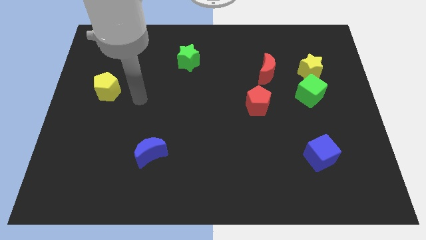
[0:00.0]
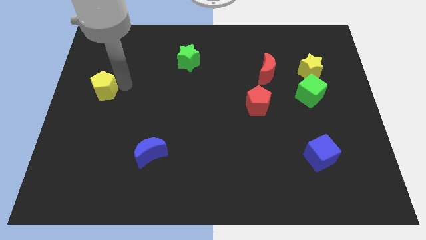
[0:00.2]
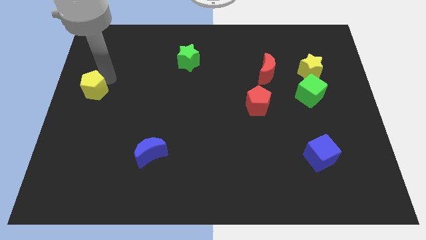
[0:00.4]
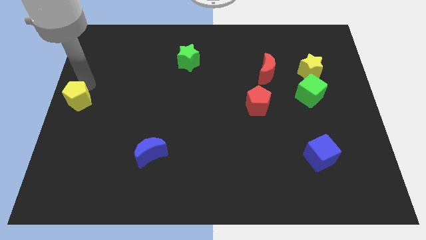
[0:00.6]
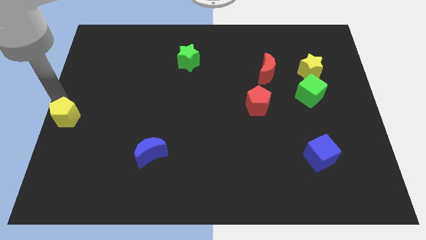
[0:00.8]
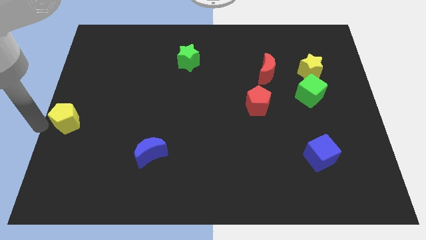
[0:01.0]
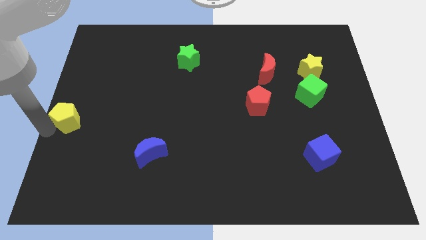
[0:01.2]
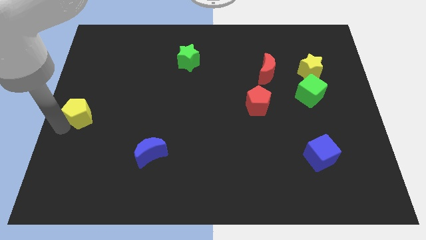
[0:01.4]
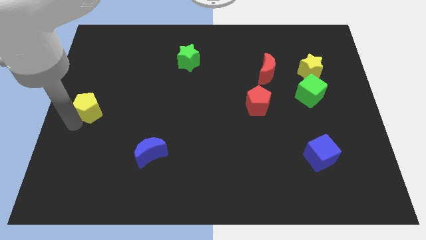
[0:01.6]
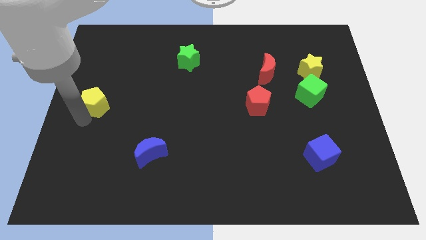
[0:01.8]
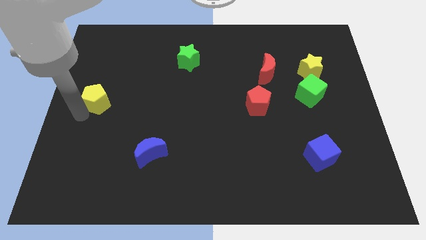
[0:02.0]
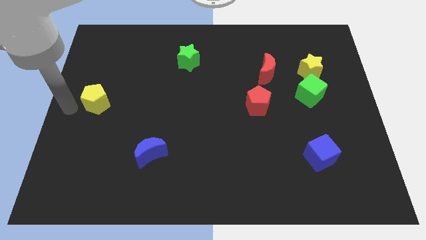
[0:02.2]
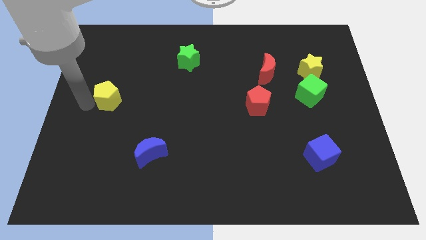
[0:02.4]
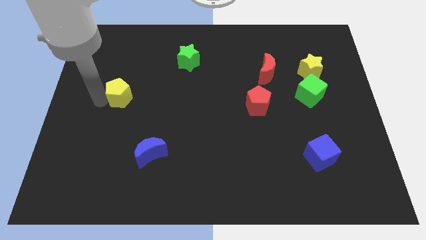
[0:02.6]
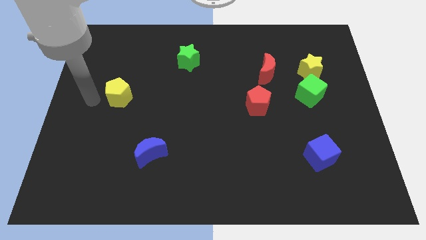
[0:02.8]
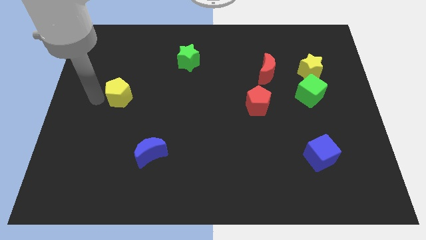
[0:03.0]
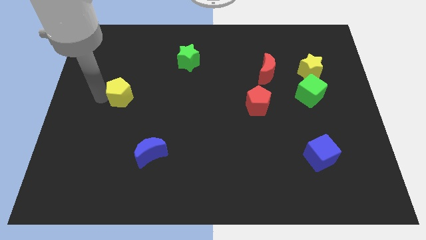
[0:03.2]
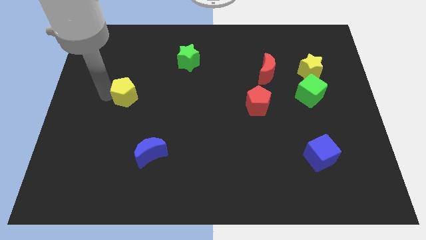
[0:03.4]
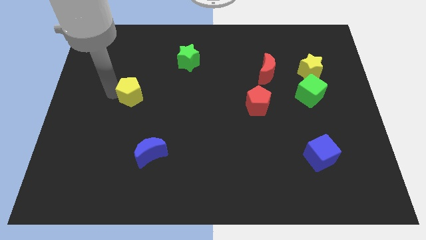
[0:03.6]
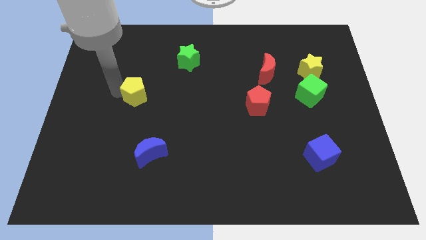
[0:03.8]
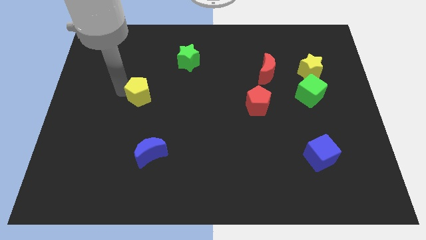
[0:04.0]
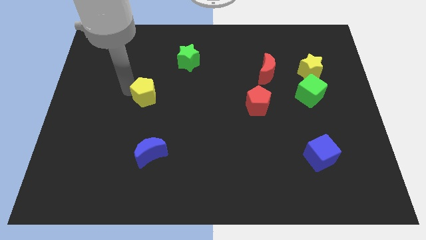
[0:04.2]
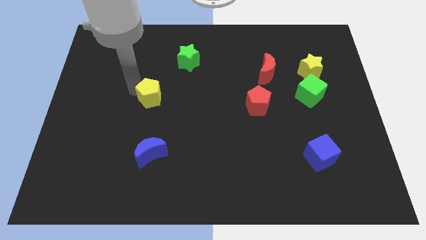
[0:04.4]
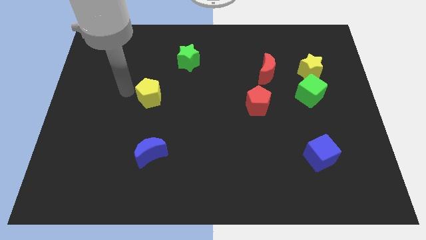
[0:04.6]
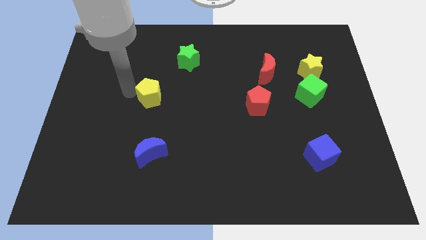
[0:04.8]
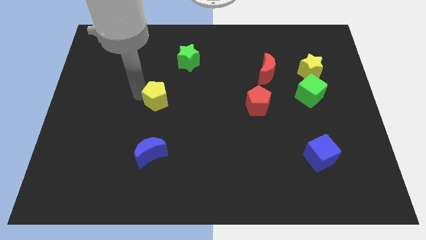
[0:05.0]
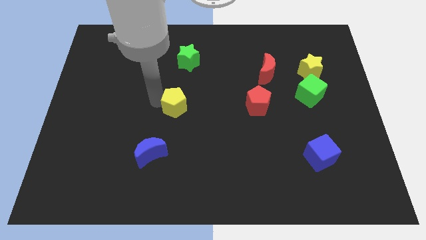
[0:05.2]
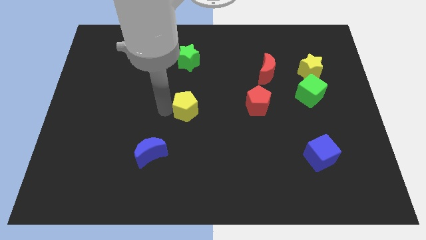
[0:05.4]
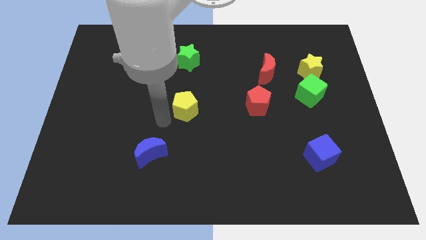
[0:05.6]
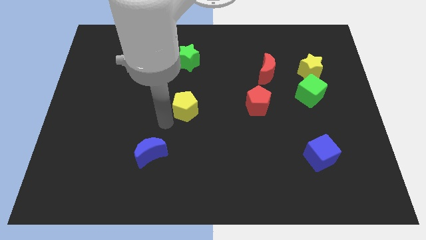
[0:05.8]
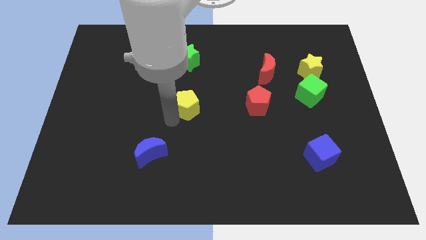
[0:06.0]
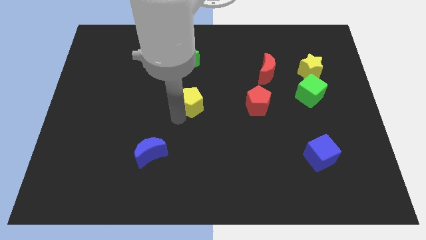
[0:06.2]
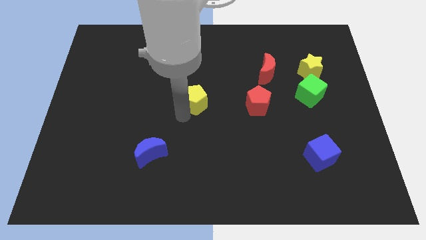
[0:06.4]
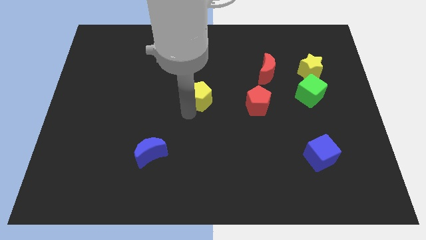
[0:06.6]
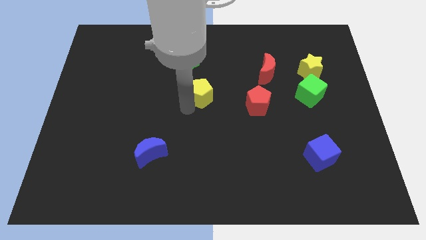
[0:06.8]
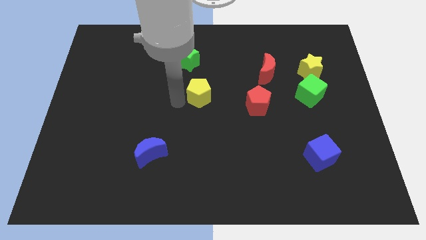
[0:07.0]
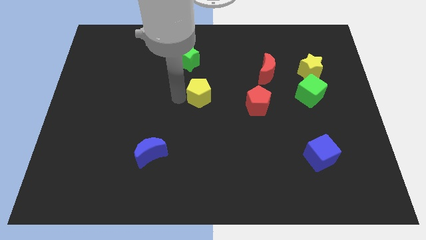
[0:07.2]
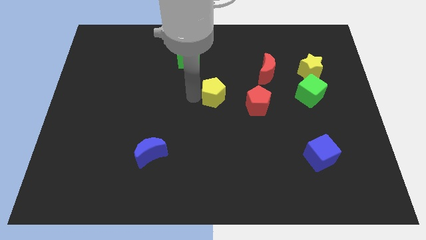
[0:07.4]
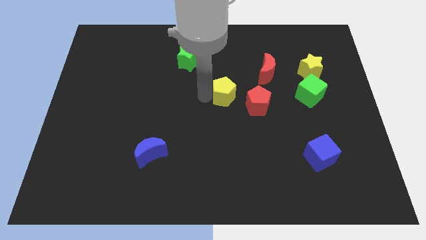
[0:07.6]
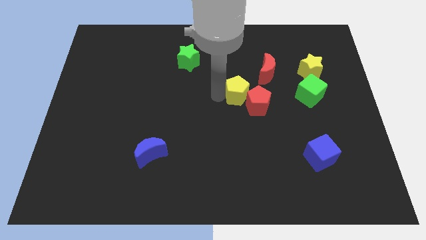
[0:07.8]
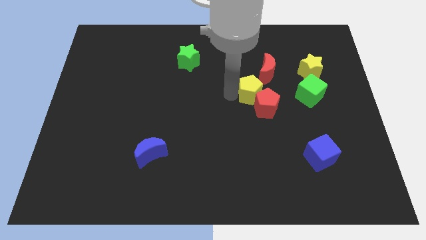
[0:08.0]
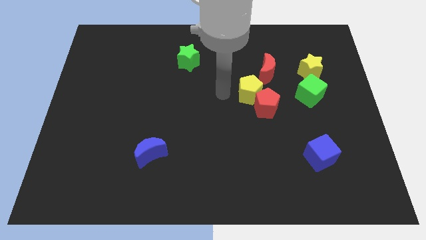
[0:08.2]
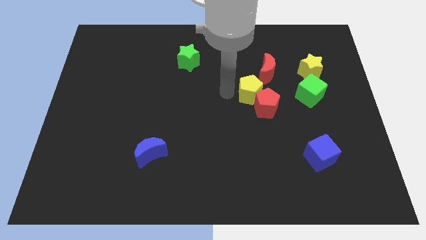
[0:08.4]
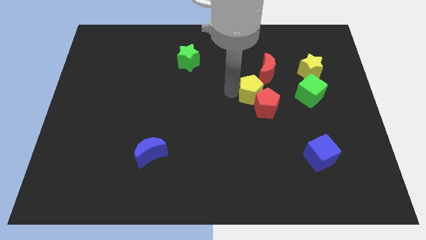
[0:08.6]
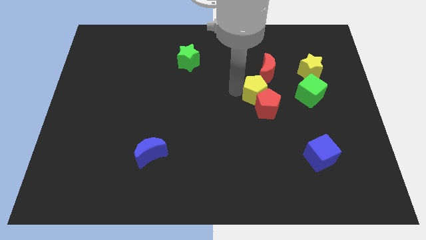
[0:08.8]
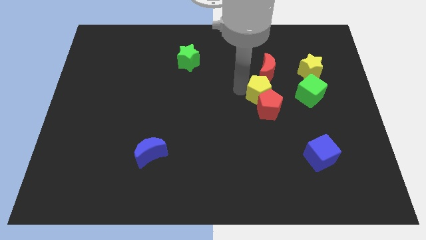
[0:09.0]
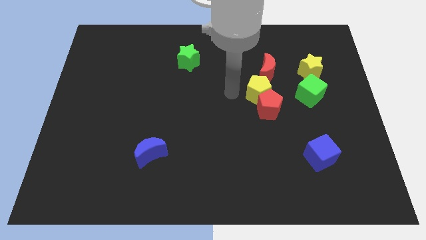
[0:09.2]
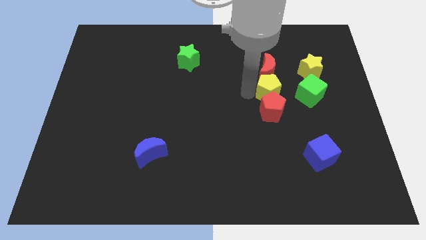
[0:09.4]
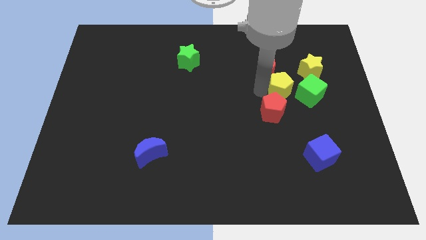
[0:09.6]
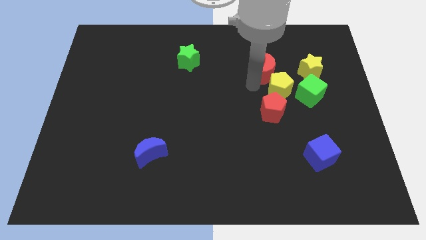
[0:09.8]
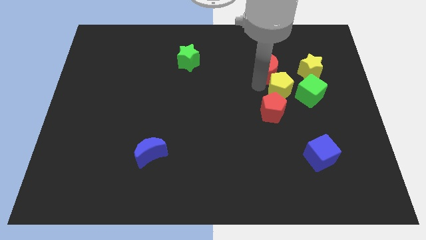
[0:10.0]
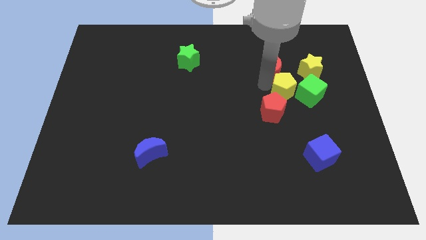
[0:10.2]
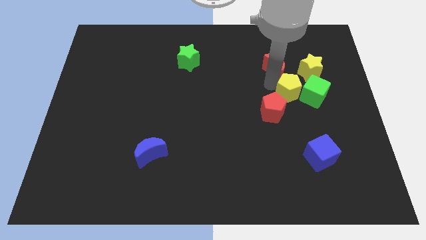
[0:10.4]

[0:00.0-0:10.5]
put the yellow pentagon towards the green cube

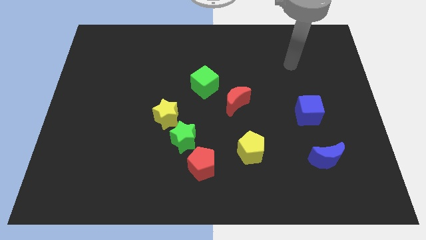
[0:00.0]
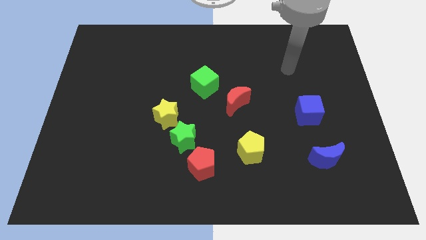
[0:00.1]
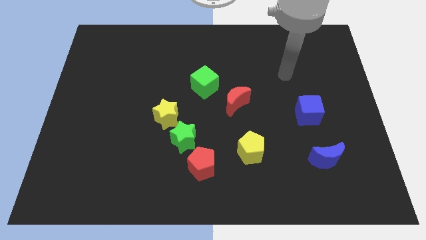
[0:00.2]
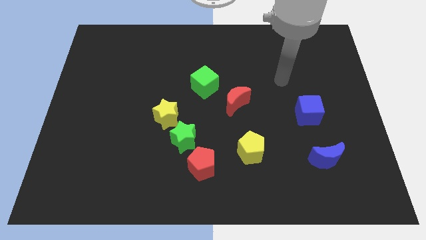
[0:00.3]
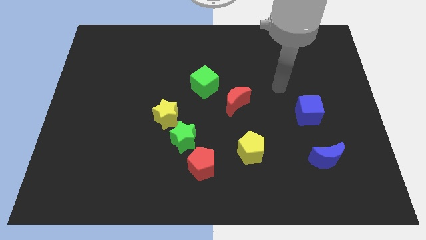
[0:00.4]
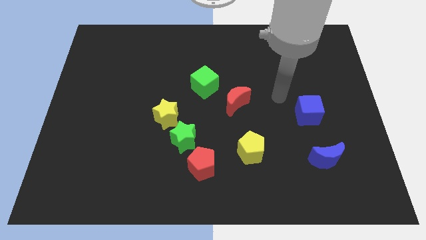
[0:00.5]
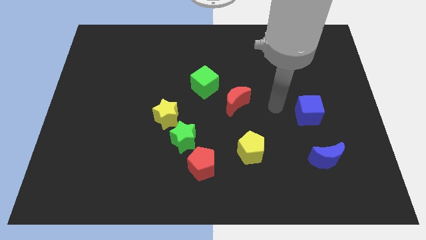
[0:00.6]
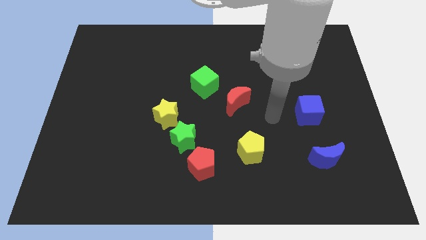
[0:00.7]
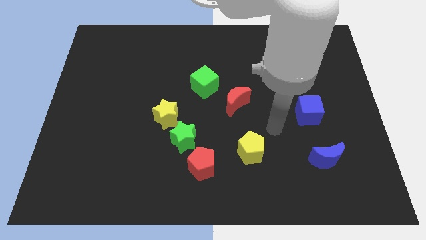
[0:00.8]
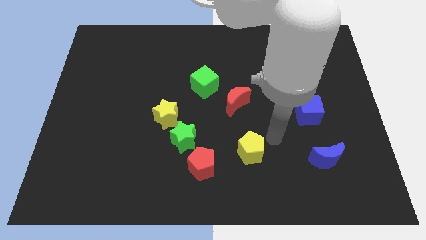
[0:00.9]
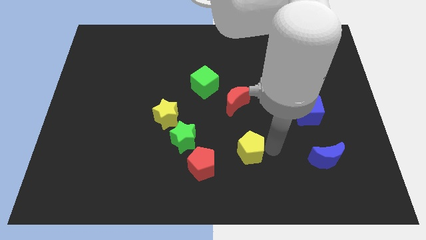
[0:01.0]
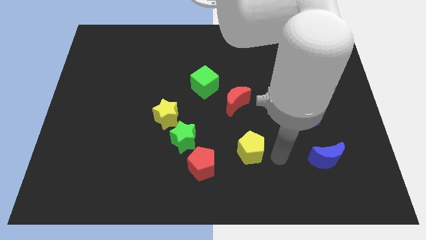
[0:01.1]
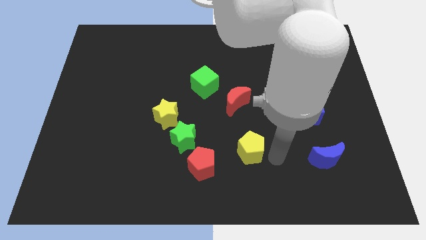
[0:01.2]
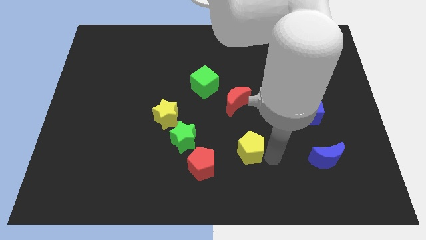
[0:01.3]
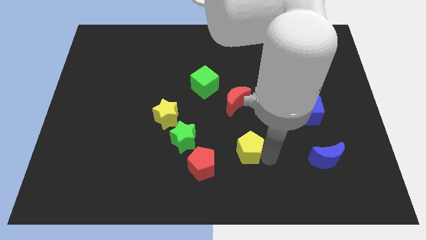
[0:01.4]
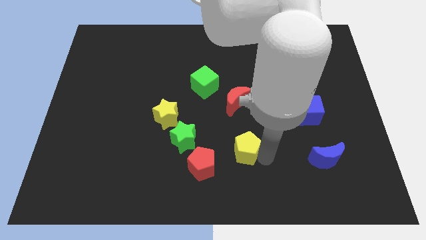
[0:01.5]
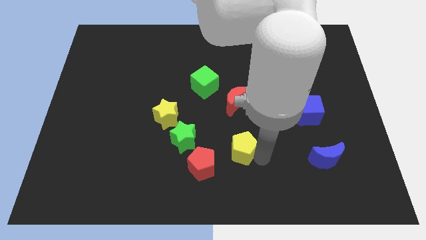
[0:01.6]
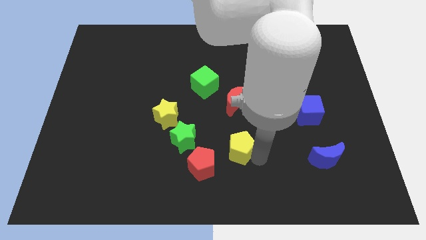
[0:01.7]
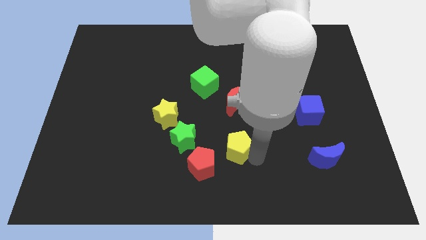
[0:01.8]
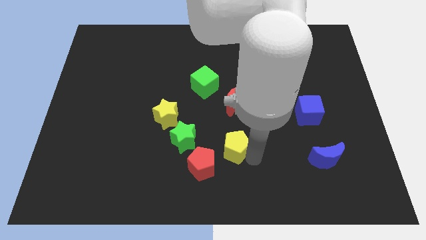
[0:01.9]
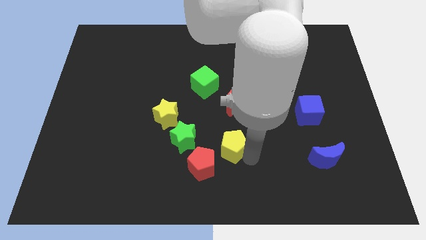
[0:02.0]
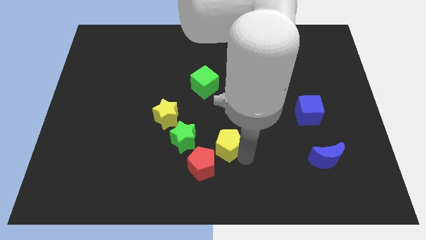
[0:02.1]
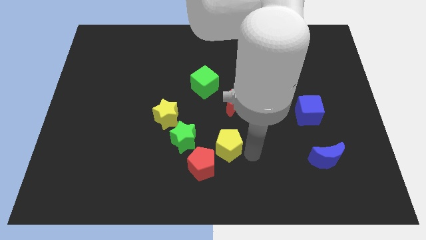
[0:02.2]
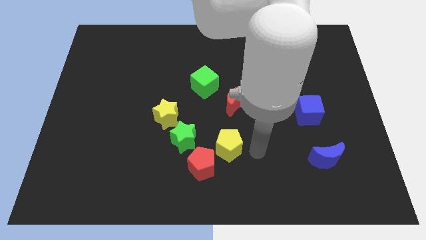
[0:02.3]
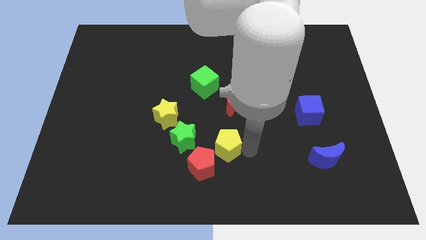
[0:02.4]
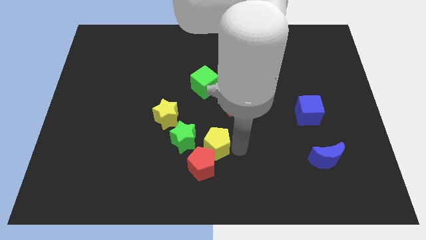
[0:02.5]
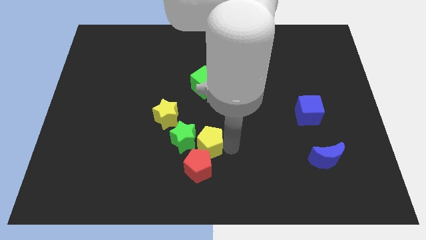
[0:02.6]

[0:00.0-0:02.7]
put the yellow pentagon towards the green star
